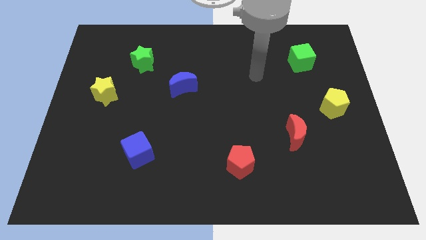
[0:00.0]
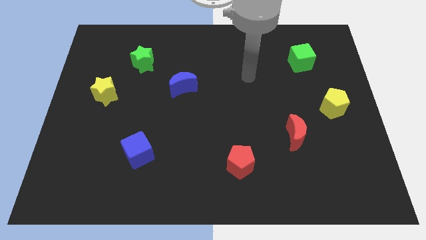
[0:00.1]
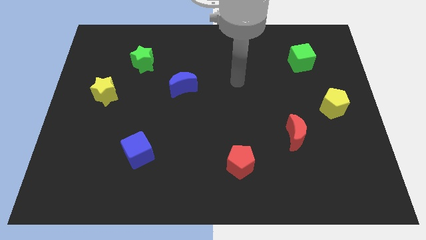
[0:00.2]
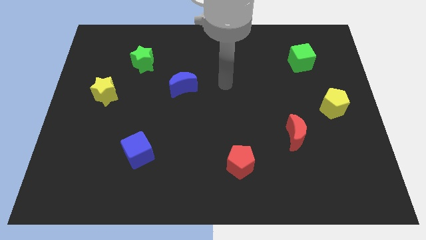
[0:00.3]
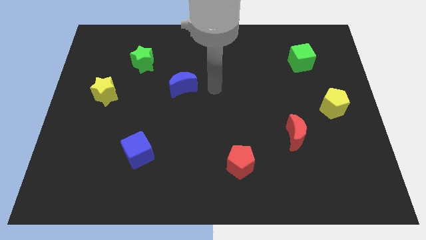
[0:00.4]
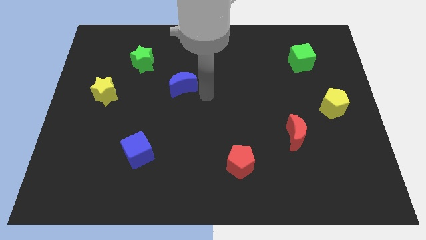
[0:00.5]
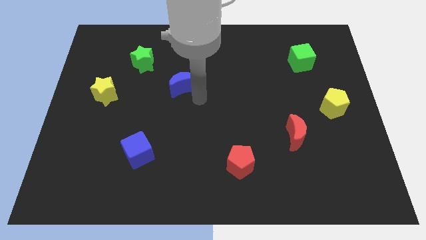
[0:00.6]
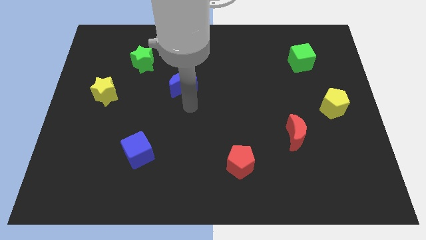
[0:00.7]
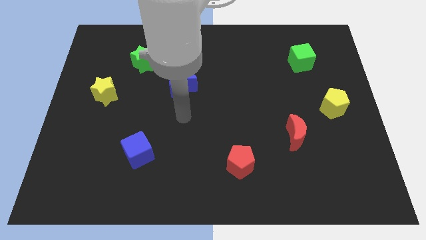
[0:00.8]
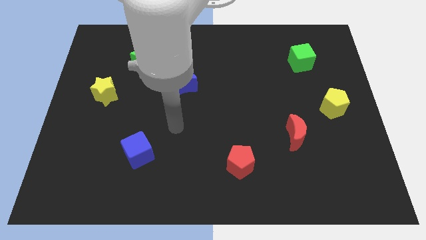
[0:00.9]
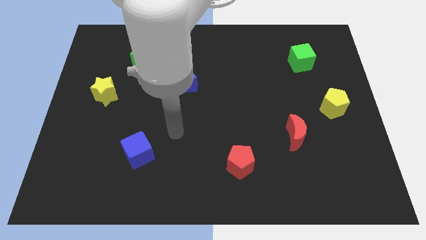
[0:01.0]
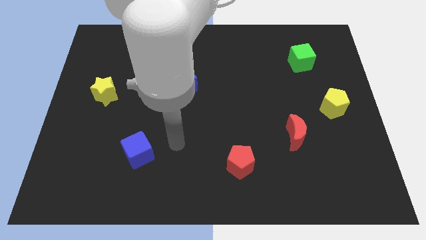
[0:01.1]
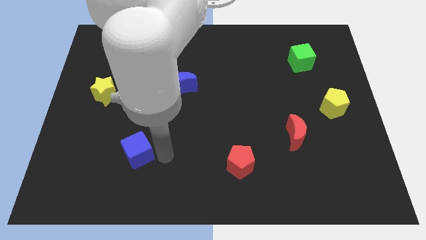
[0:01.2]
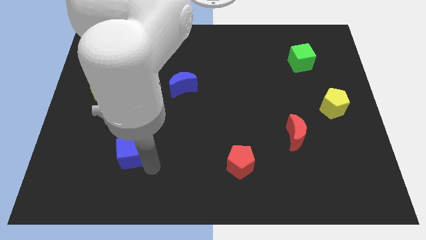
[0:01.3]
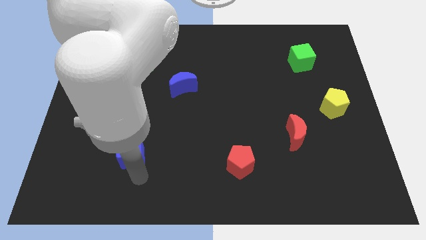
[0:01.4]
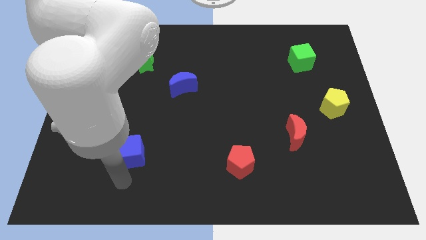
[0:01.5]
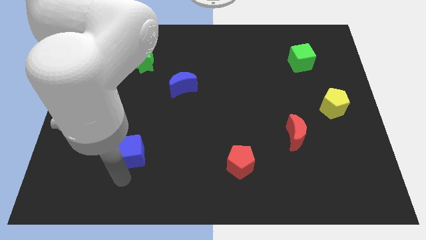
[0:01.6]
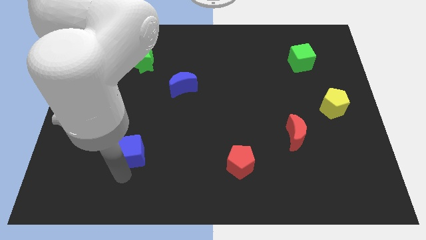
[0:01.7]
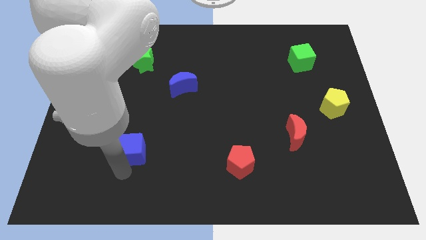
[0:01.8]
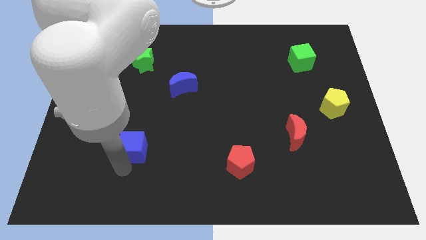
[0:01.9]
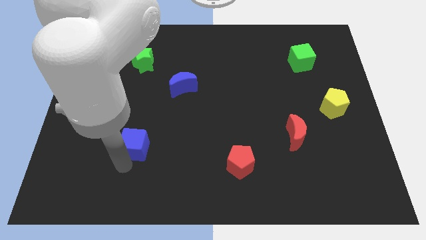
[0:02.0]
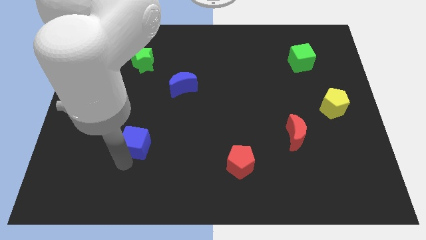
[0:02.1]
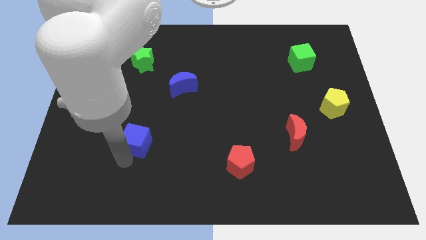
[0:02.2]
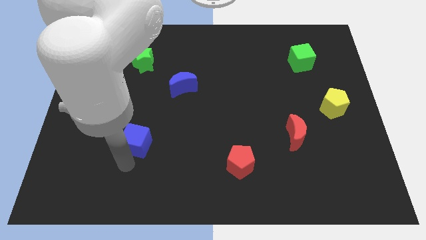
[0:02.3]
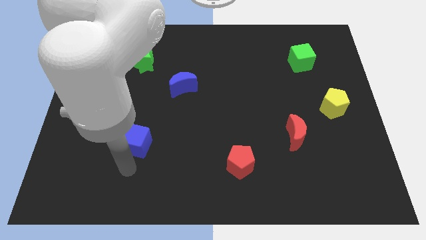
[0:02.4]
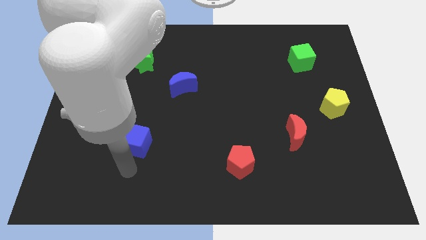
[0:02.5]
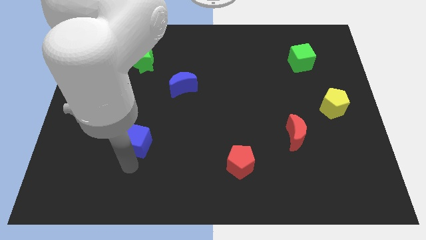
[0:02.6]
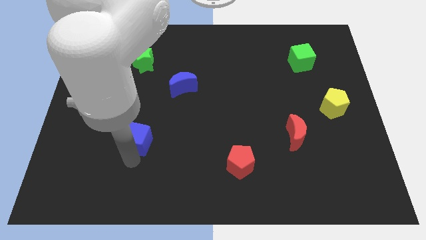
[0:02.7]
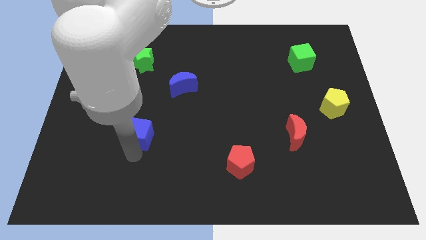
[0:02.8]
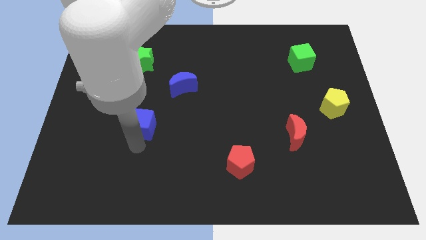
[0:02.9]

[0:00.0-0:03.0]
slightly slide the blue cube up

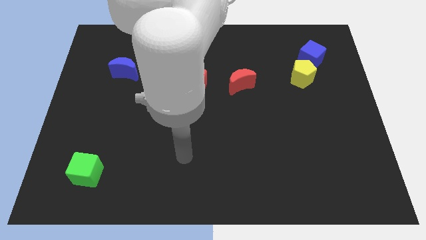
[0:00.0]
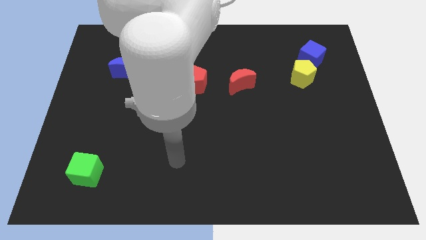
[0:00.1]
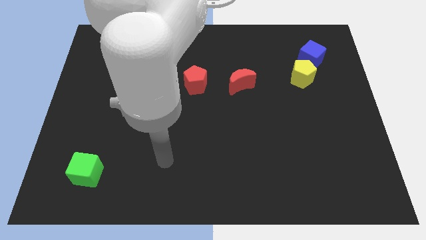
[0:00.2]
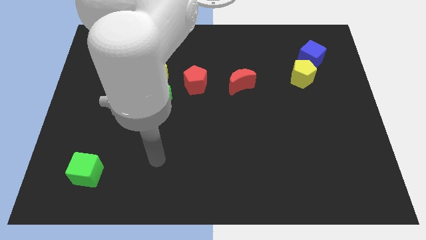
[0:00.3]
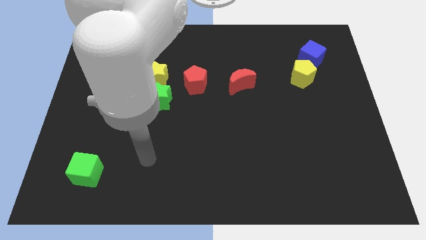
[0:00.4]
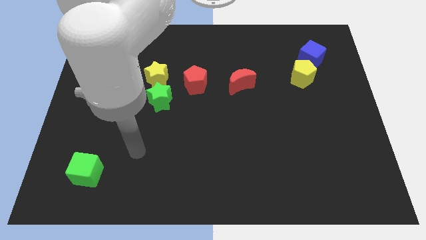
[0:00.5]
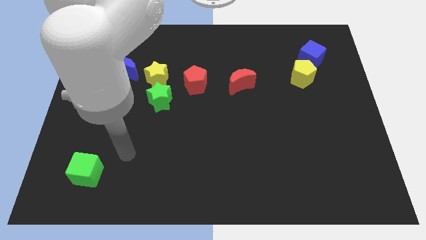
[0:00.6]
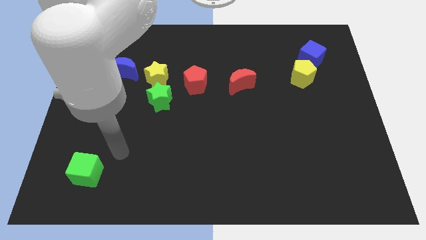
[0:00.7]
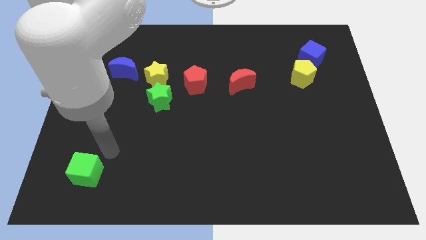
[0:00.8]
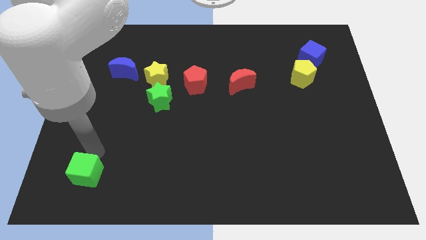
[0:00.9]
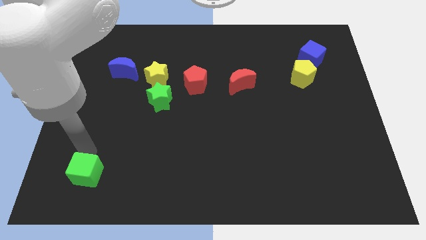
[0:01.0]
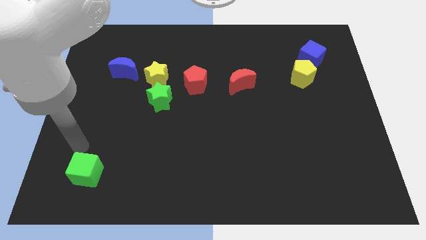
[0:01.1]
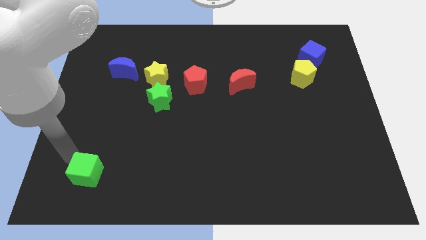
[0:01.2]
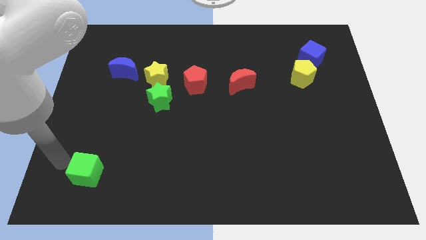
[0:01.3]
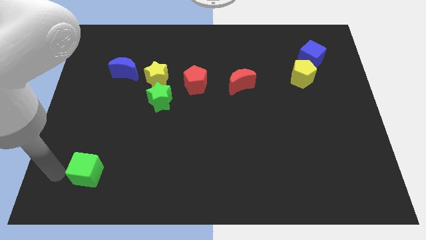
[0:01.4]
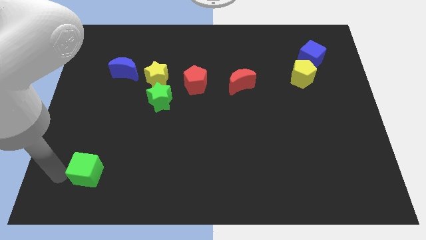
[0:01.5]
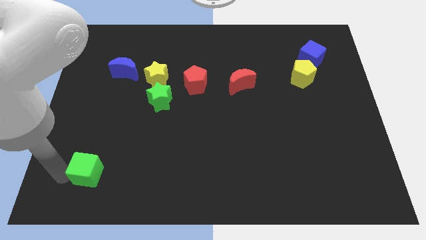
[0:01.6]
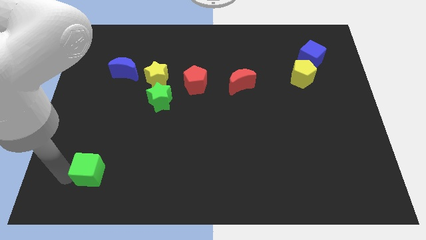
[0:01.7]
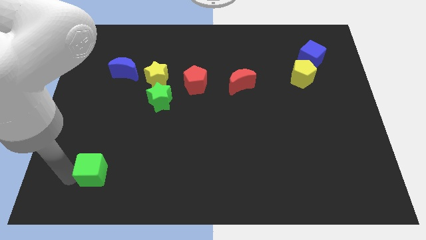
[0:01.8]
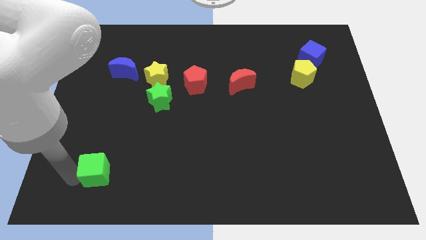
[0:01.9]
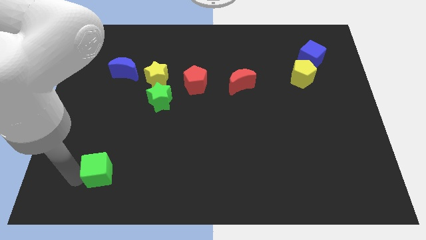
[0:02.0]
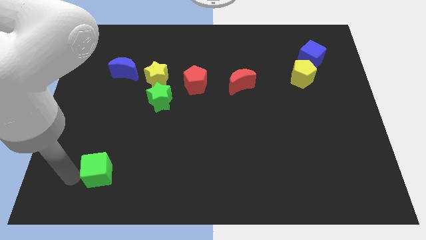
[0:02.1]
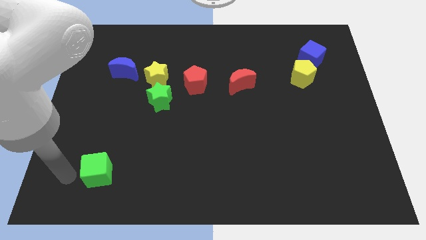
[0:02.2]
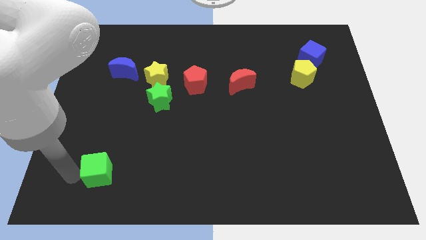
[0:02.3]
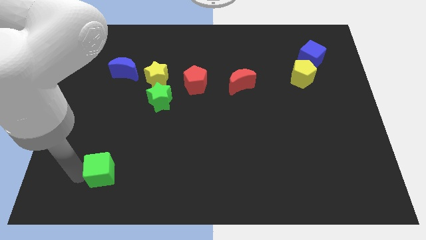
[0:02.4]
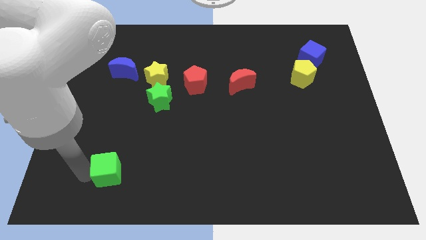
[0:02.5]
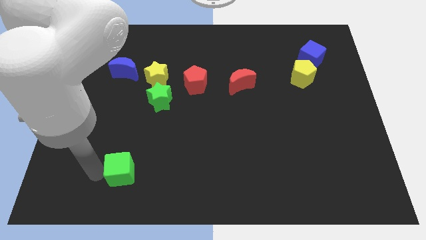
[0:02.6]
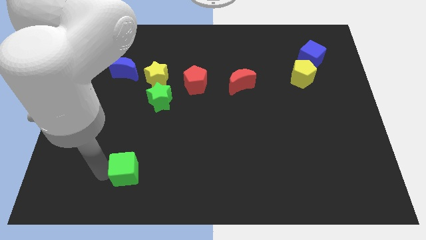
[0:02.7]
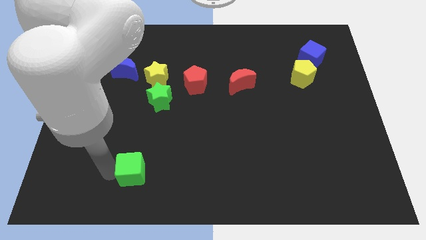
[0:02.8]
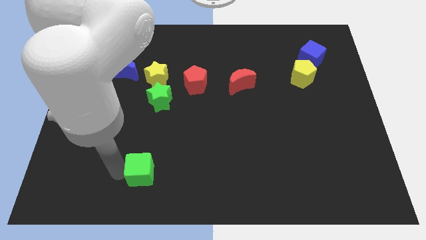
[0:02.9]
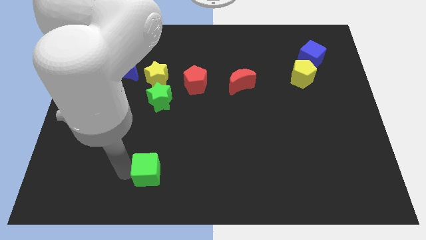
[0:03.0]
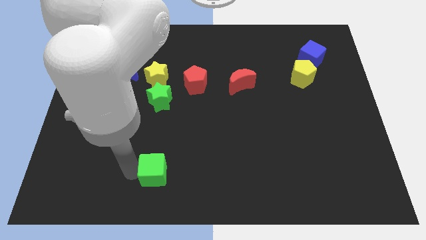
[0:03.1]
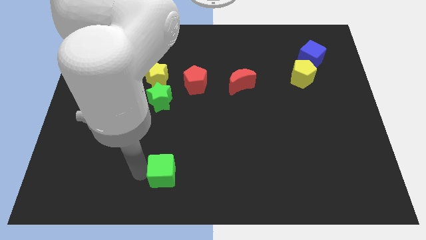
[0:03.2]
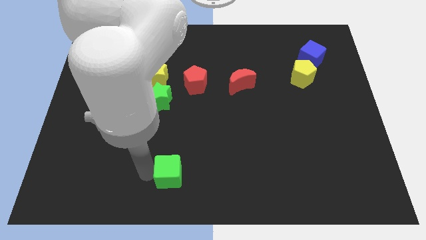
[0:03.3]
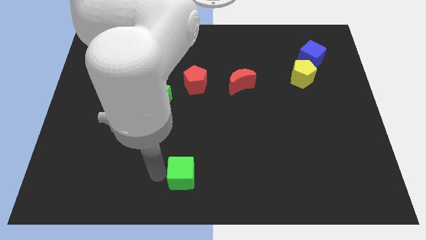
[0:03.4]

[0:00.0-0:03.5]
move the green cube to the right

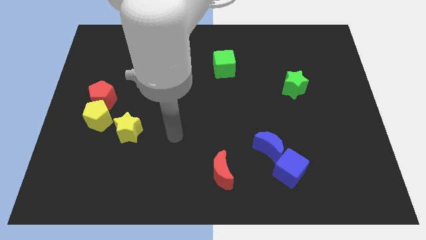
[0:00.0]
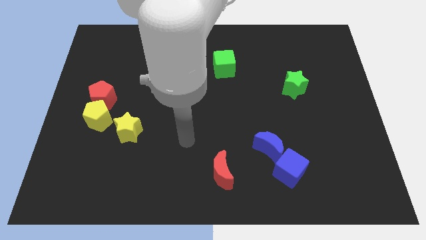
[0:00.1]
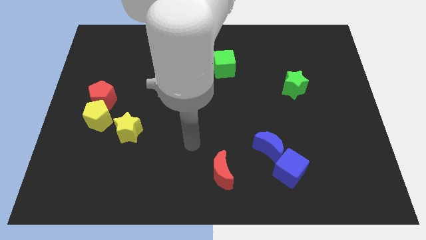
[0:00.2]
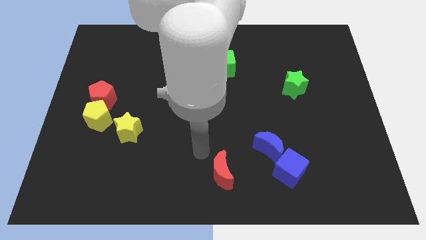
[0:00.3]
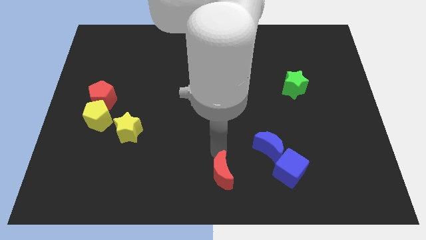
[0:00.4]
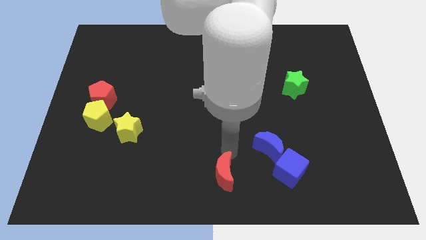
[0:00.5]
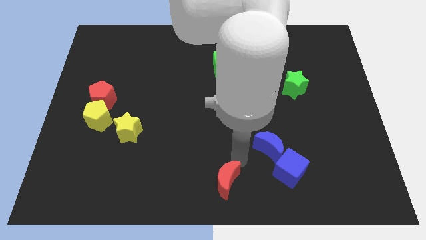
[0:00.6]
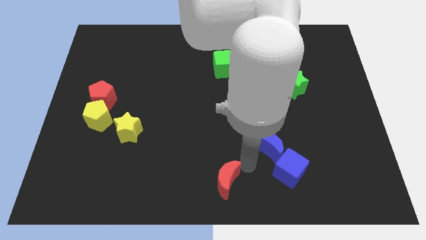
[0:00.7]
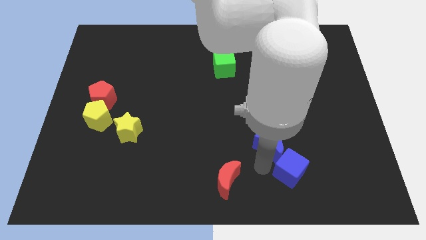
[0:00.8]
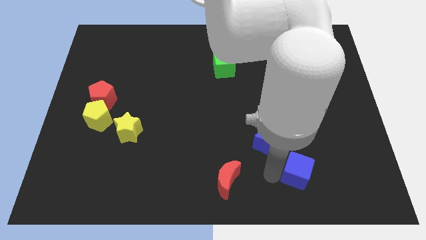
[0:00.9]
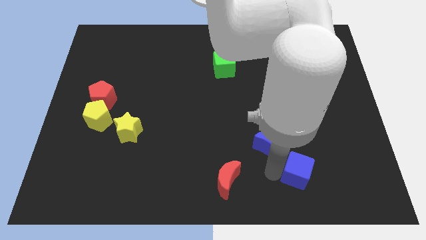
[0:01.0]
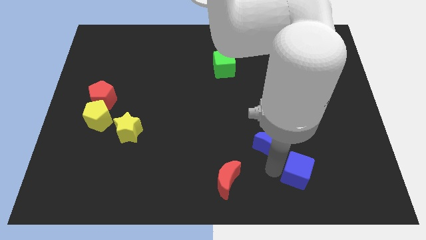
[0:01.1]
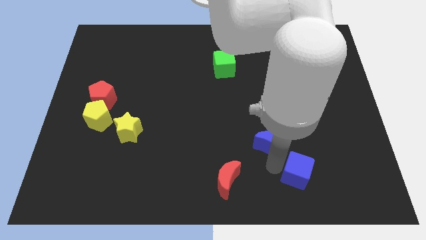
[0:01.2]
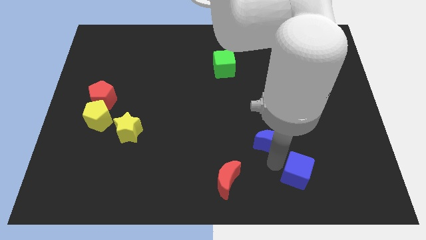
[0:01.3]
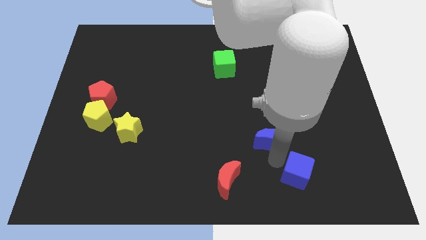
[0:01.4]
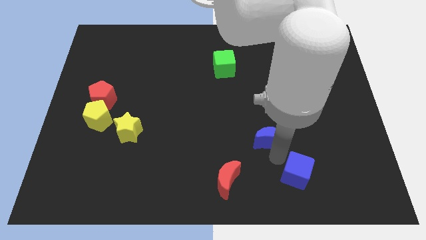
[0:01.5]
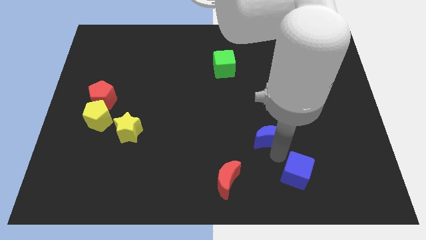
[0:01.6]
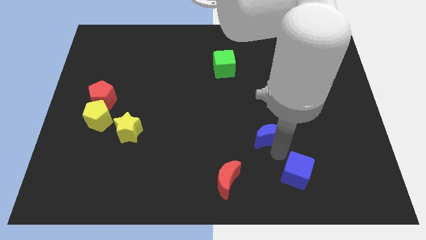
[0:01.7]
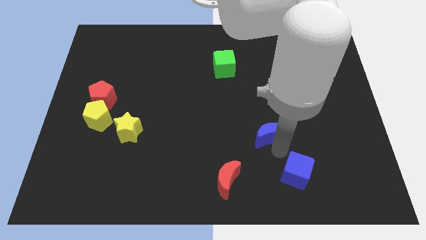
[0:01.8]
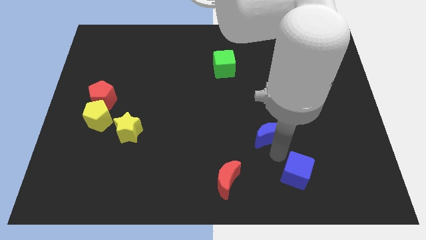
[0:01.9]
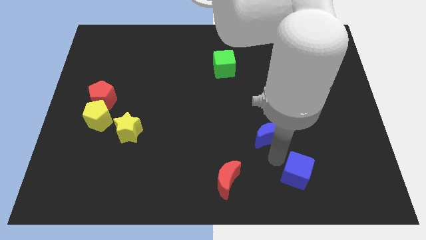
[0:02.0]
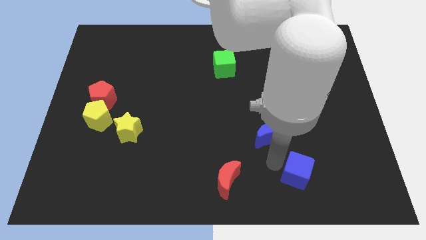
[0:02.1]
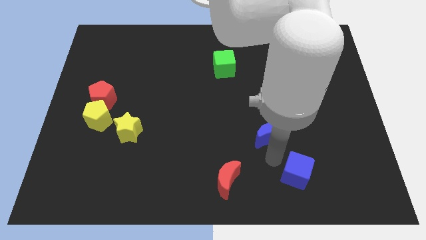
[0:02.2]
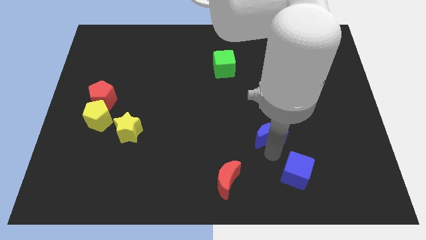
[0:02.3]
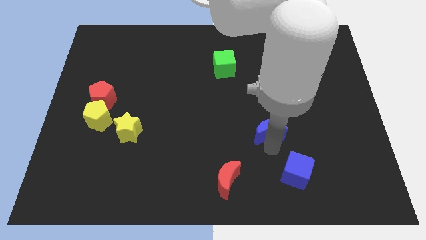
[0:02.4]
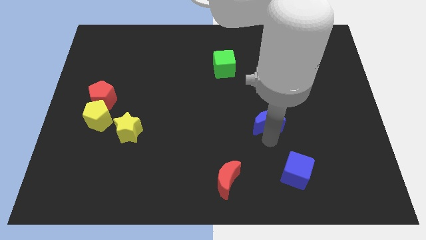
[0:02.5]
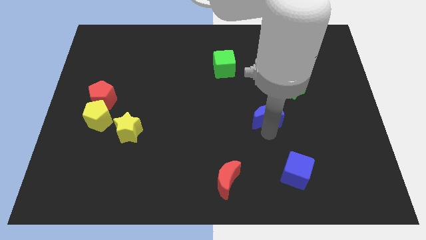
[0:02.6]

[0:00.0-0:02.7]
slightly move the blue moon up
